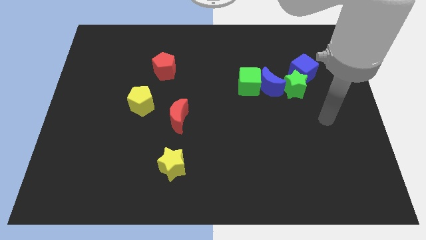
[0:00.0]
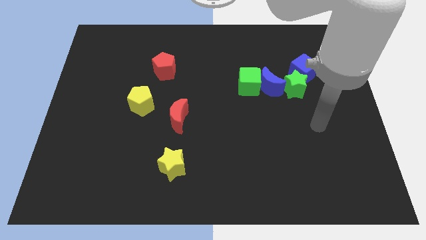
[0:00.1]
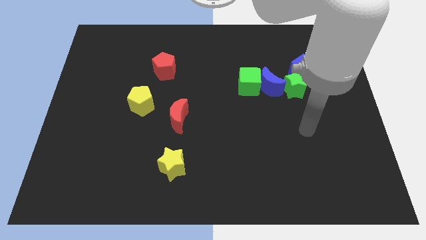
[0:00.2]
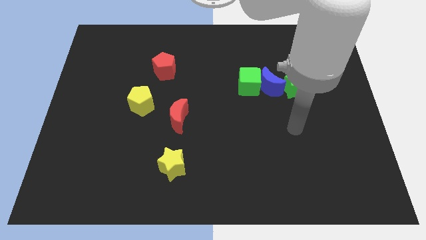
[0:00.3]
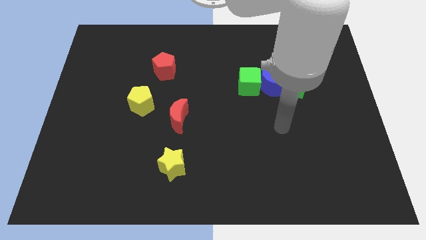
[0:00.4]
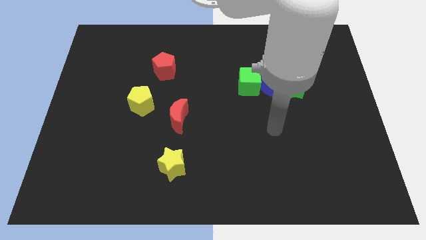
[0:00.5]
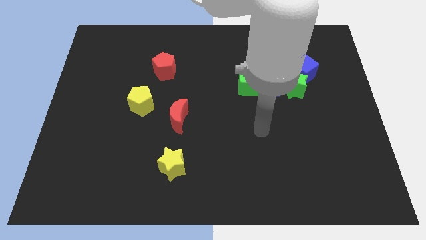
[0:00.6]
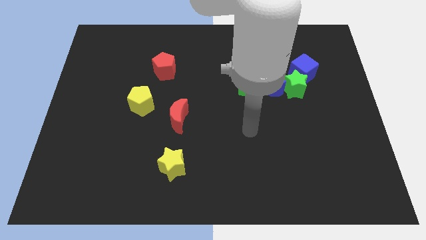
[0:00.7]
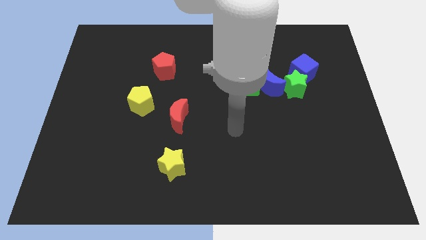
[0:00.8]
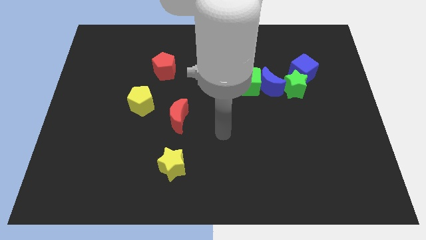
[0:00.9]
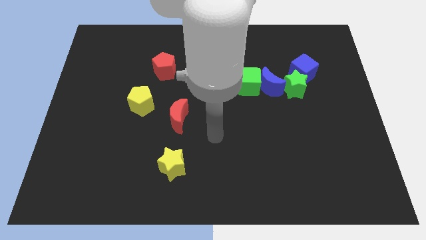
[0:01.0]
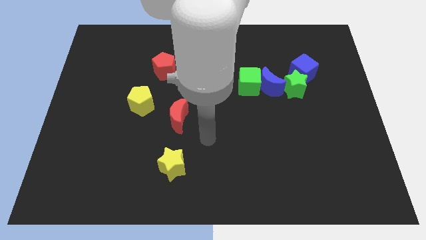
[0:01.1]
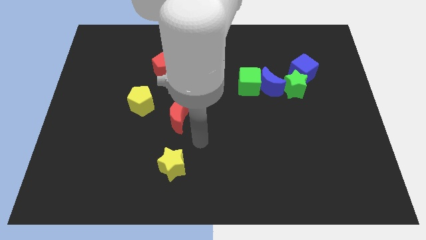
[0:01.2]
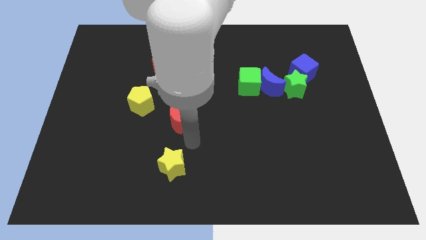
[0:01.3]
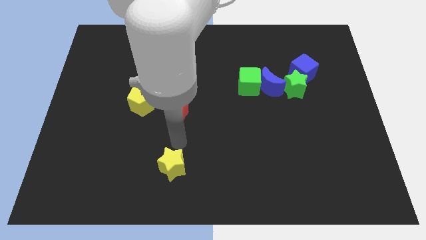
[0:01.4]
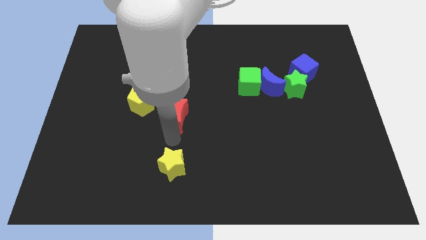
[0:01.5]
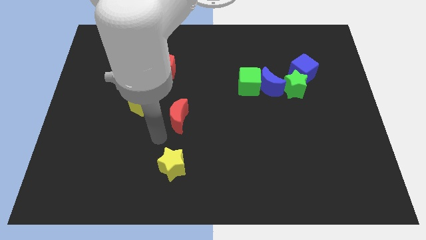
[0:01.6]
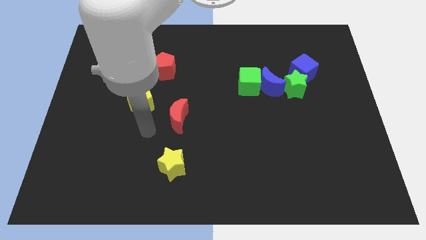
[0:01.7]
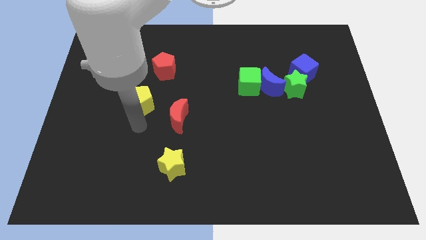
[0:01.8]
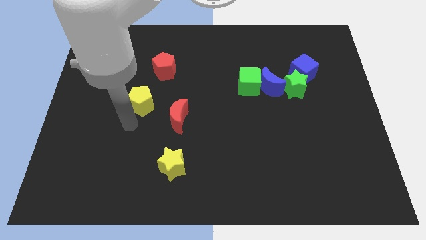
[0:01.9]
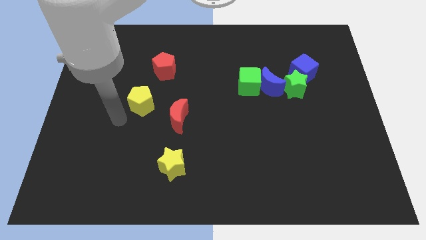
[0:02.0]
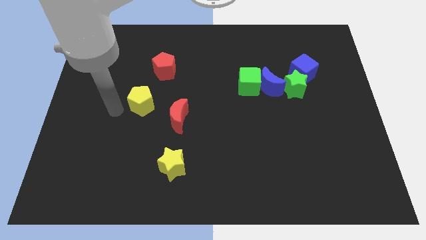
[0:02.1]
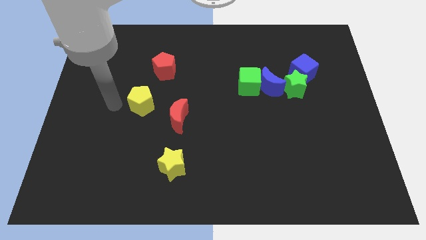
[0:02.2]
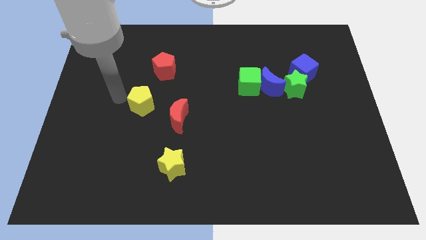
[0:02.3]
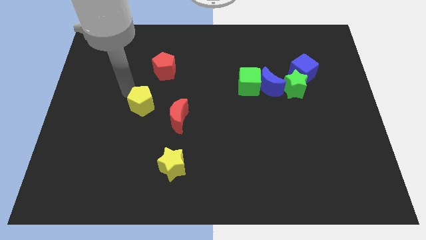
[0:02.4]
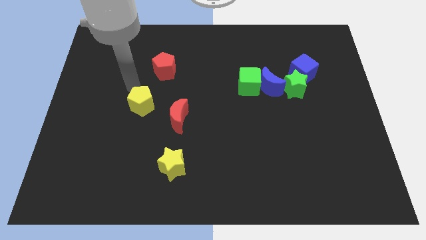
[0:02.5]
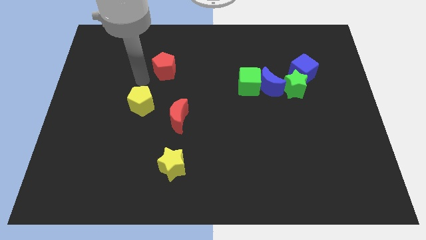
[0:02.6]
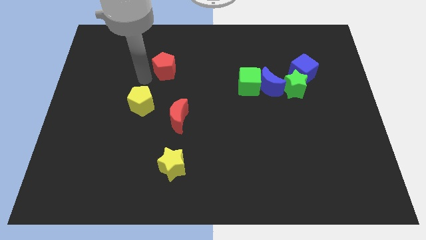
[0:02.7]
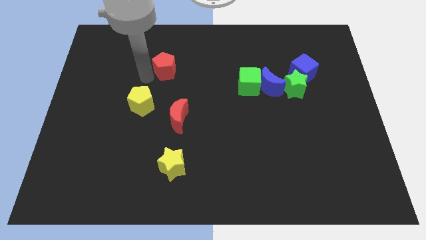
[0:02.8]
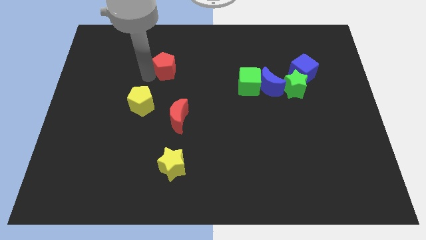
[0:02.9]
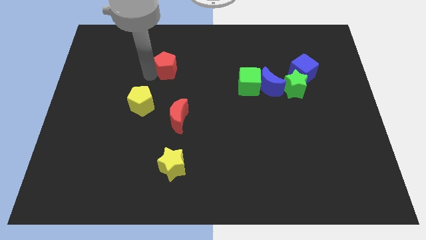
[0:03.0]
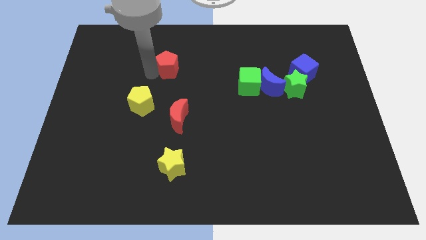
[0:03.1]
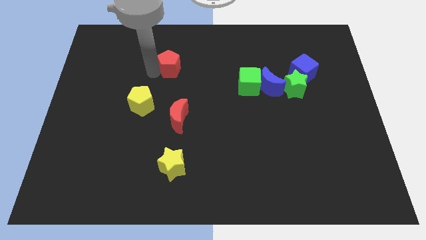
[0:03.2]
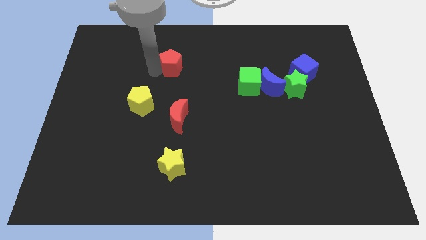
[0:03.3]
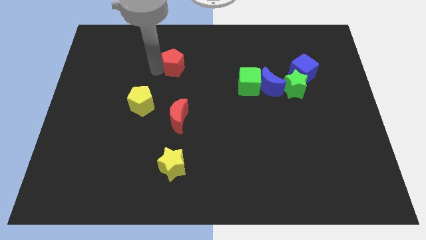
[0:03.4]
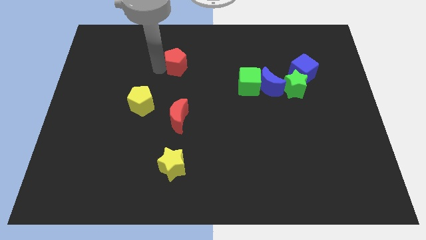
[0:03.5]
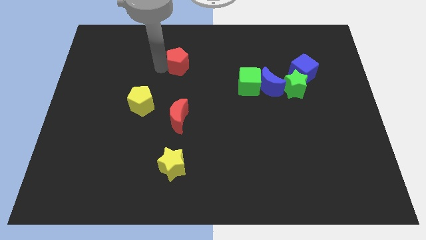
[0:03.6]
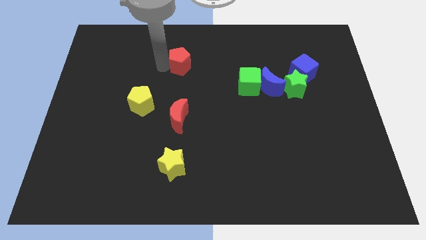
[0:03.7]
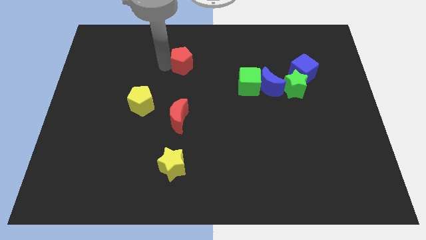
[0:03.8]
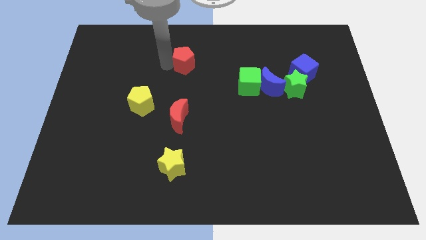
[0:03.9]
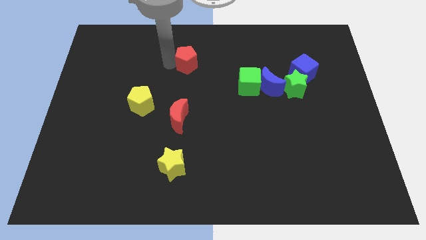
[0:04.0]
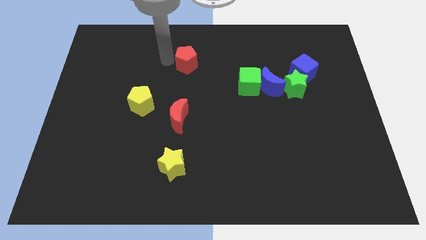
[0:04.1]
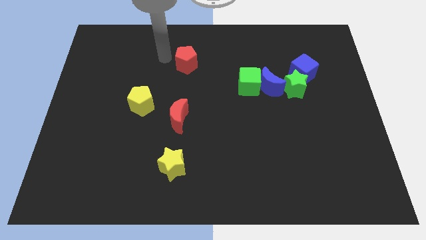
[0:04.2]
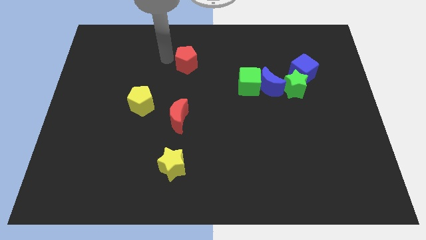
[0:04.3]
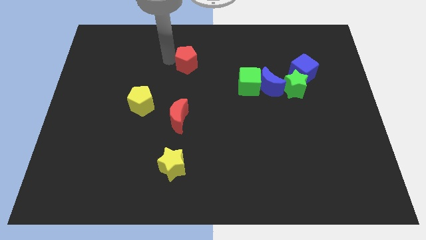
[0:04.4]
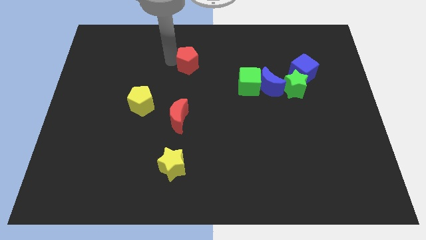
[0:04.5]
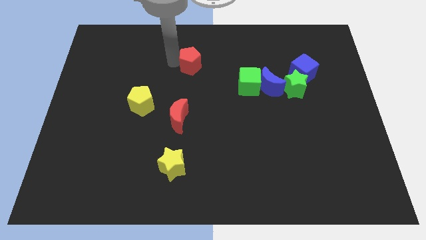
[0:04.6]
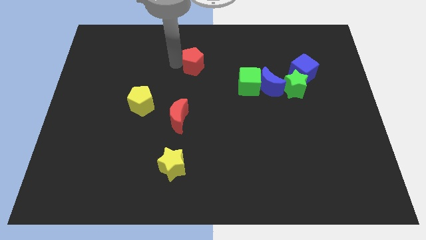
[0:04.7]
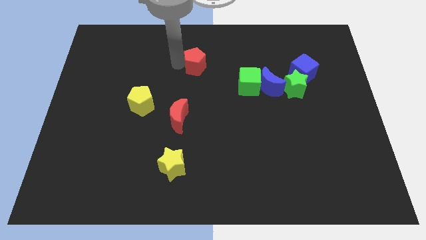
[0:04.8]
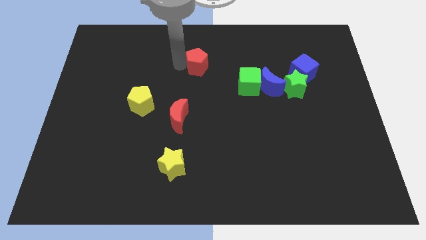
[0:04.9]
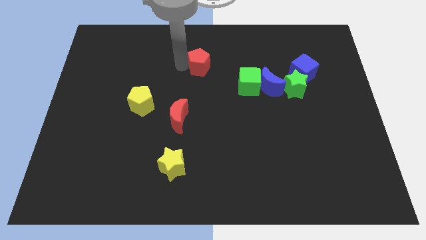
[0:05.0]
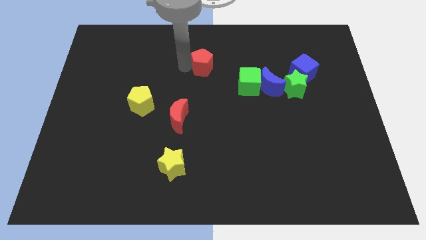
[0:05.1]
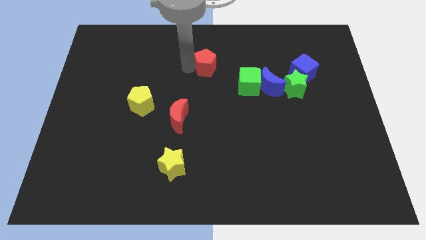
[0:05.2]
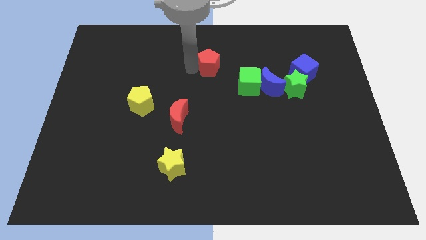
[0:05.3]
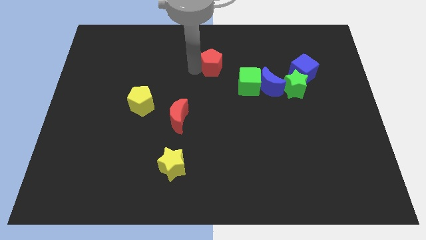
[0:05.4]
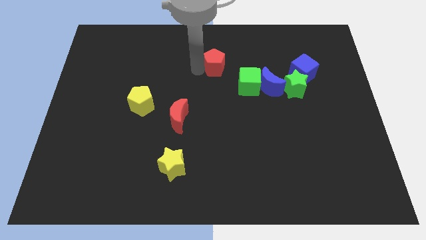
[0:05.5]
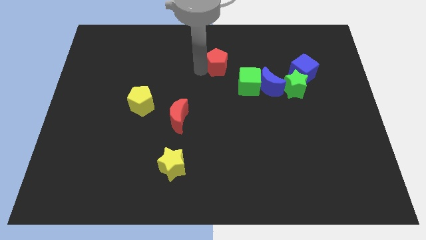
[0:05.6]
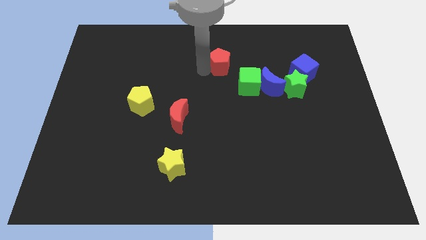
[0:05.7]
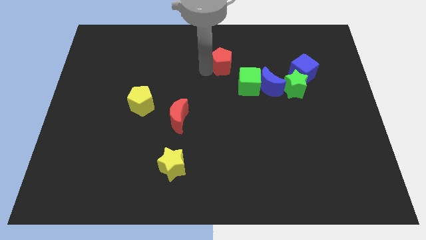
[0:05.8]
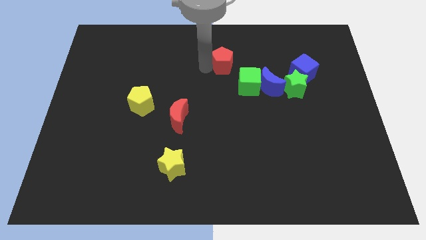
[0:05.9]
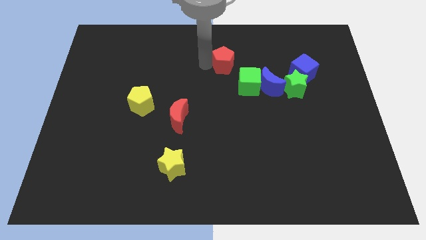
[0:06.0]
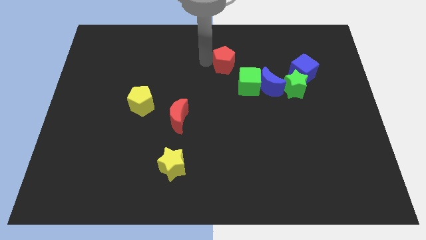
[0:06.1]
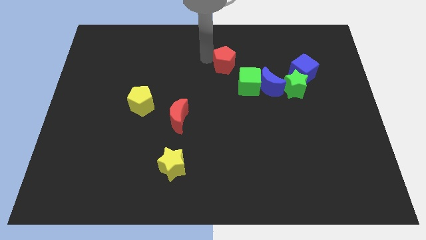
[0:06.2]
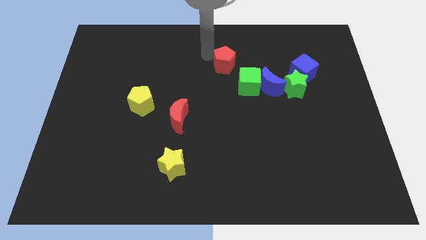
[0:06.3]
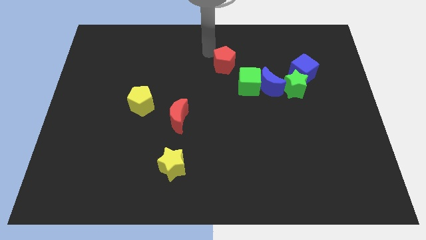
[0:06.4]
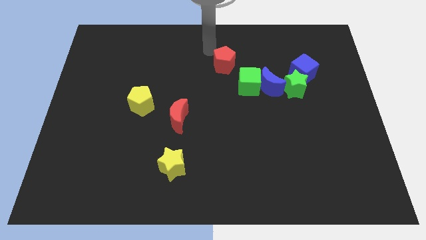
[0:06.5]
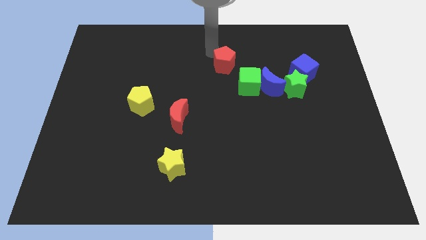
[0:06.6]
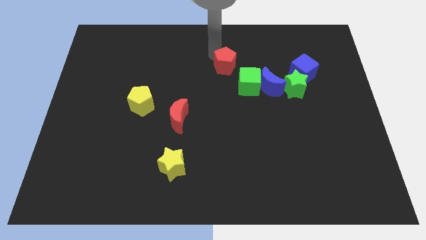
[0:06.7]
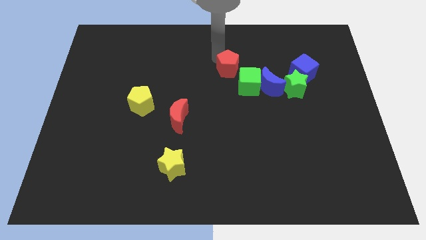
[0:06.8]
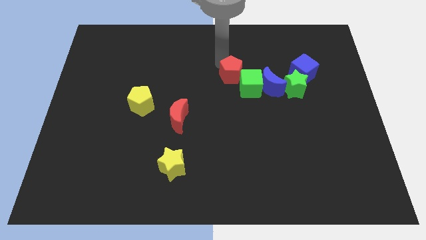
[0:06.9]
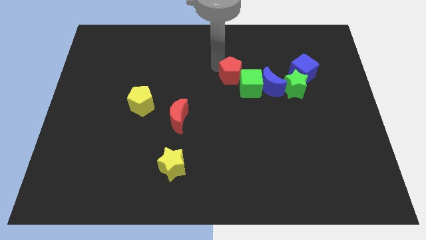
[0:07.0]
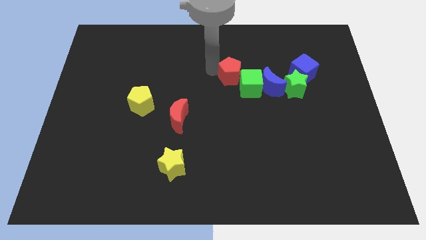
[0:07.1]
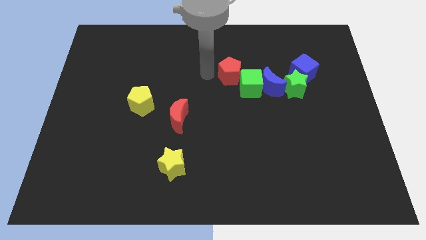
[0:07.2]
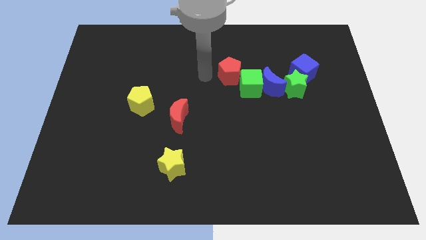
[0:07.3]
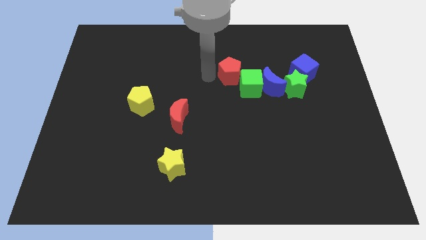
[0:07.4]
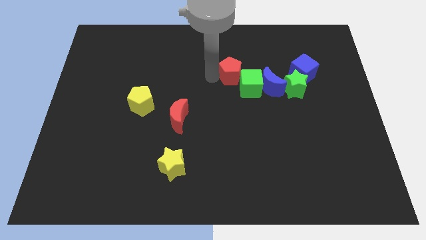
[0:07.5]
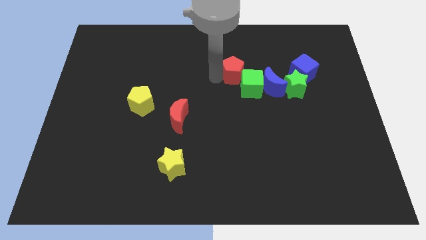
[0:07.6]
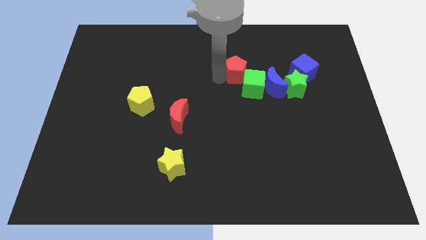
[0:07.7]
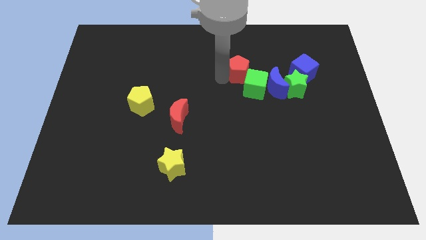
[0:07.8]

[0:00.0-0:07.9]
slide the red pentagon just left of the blue cube
